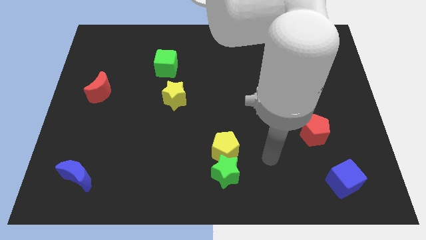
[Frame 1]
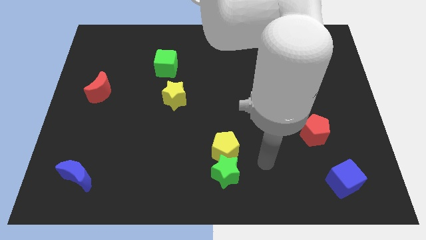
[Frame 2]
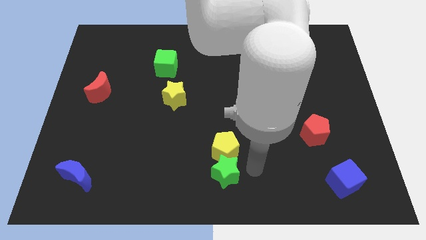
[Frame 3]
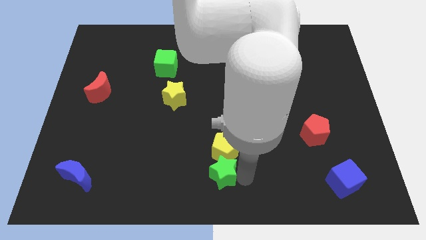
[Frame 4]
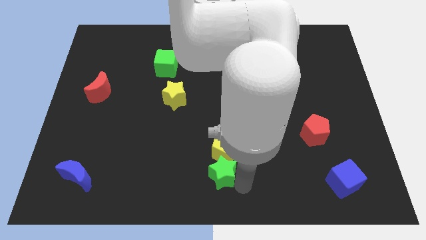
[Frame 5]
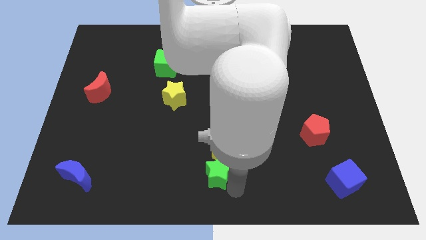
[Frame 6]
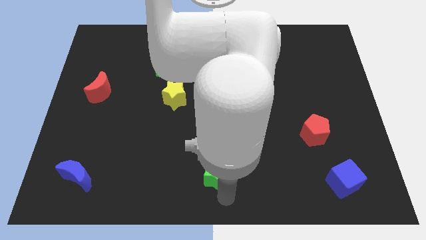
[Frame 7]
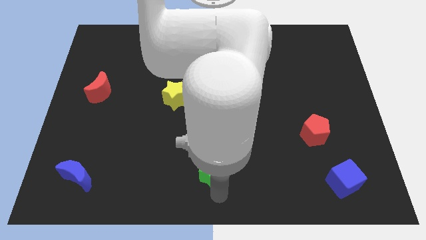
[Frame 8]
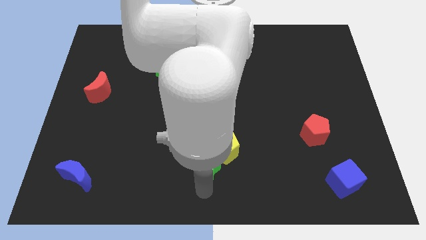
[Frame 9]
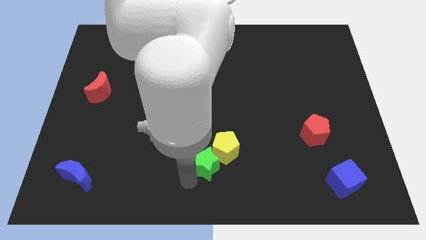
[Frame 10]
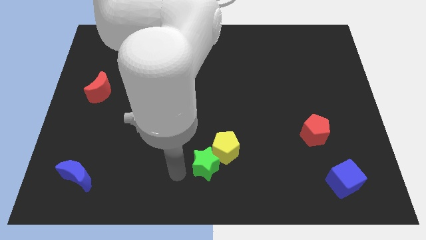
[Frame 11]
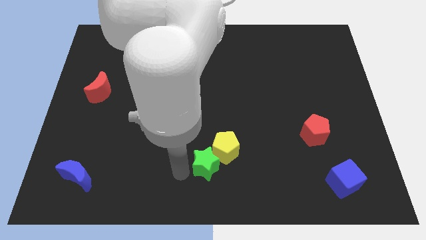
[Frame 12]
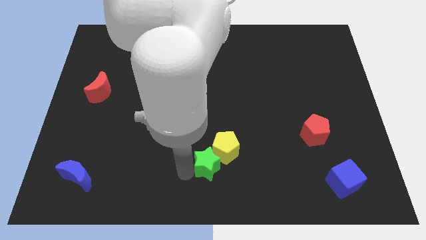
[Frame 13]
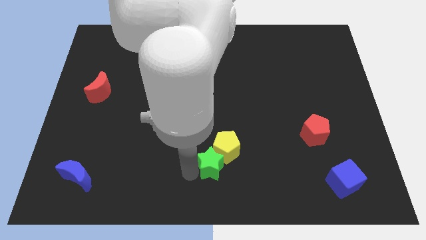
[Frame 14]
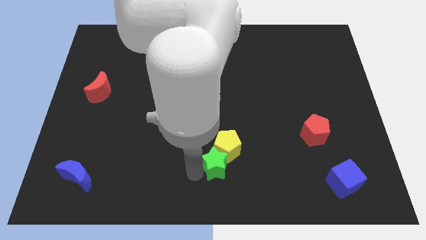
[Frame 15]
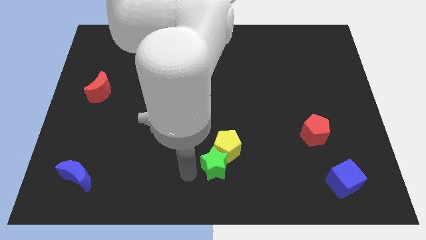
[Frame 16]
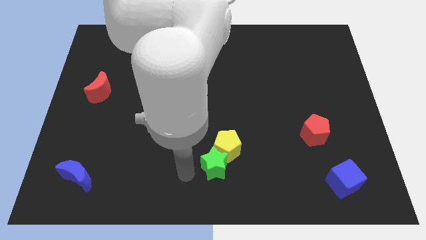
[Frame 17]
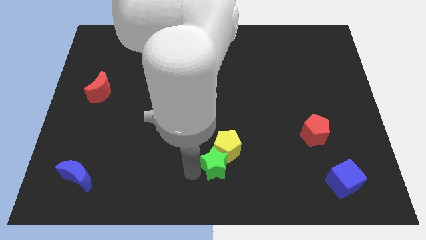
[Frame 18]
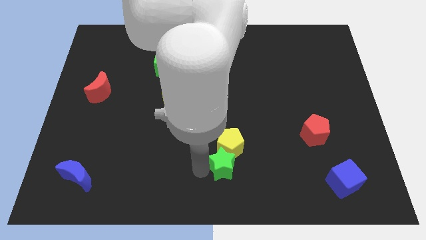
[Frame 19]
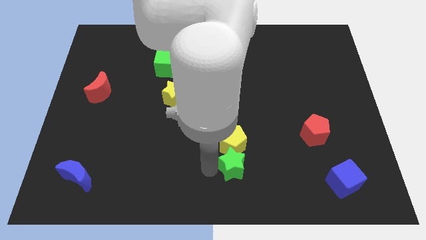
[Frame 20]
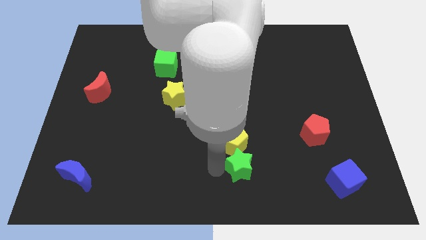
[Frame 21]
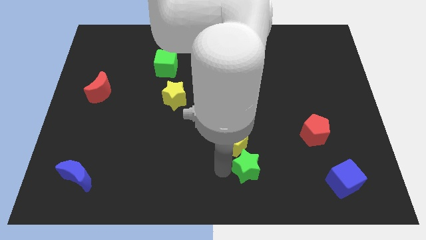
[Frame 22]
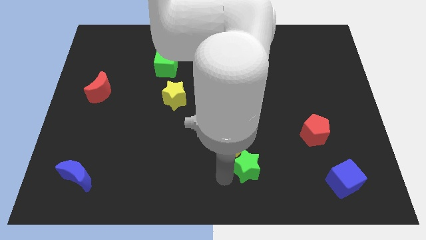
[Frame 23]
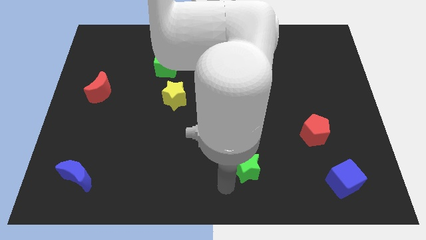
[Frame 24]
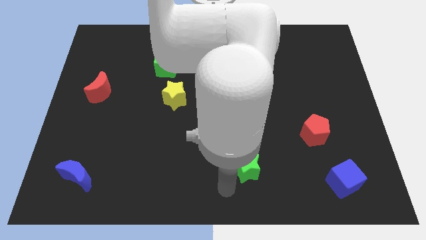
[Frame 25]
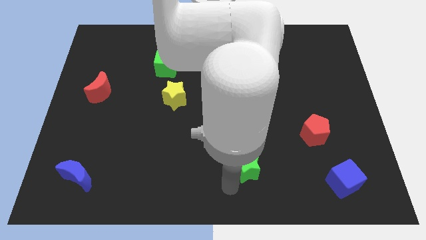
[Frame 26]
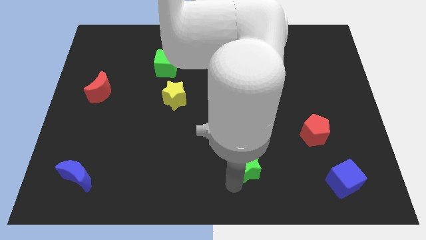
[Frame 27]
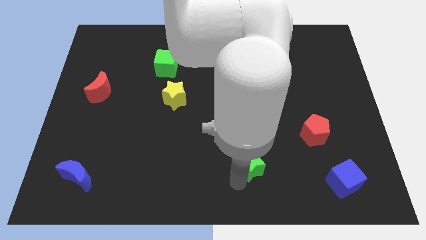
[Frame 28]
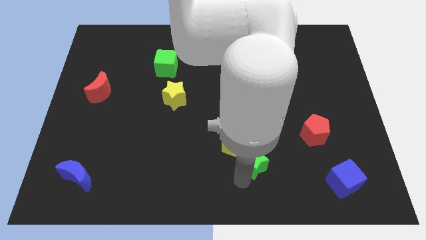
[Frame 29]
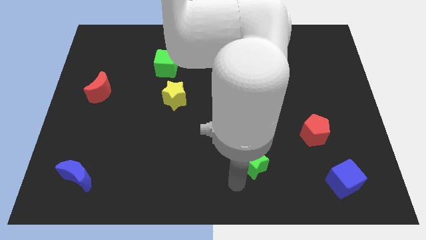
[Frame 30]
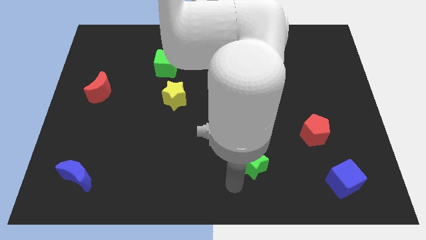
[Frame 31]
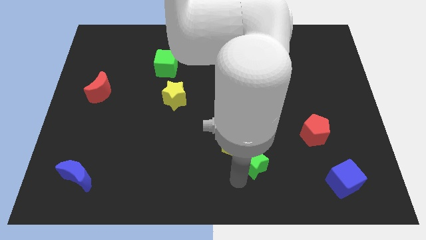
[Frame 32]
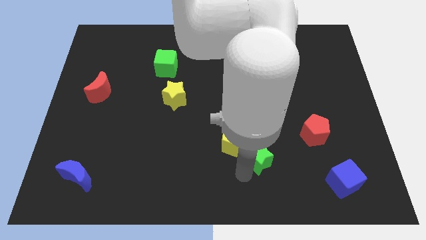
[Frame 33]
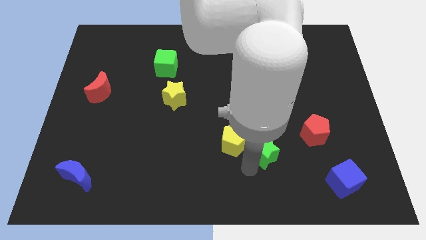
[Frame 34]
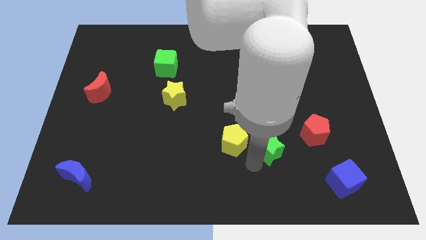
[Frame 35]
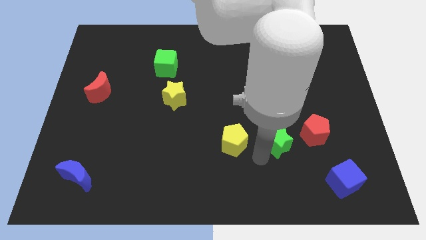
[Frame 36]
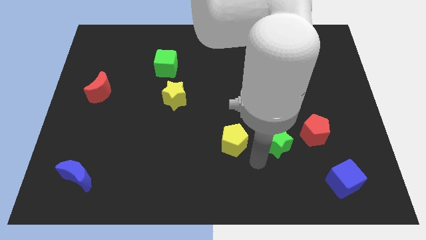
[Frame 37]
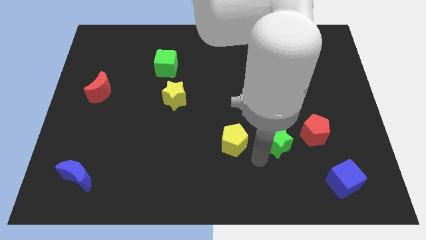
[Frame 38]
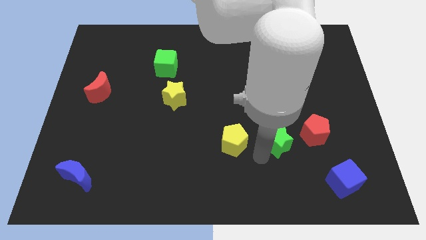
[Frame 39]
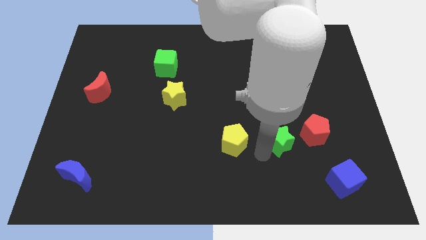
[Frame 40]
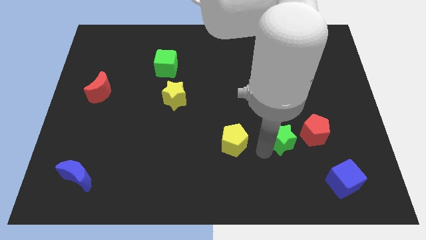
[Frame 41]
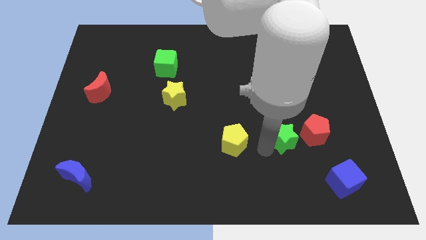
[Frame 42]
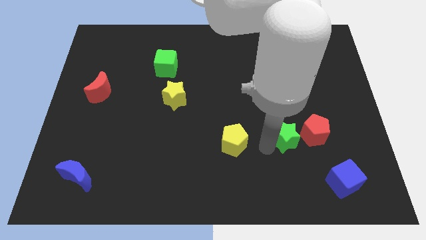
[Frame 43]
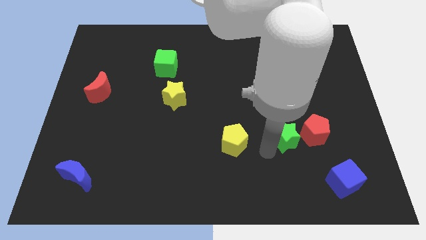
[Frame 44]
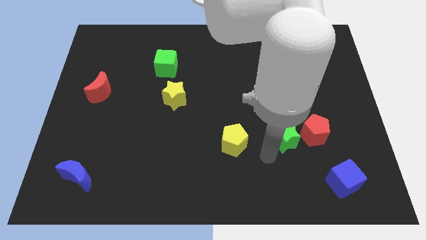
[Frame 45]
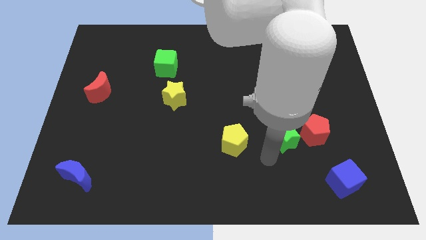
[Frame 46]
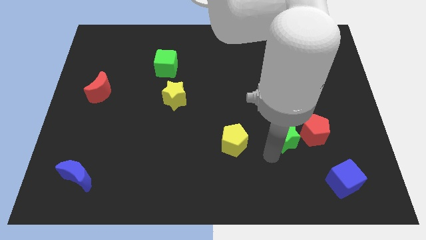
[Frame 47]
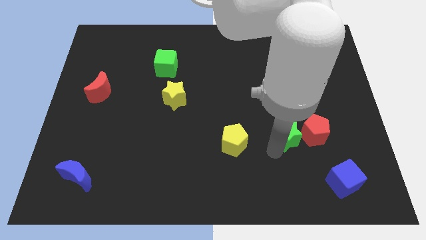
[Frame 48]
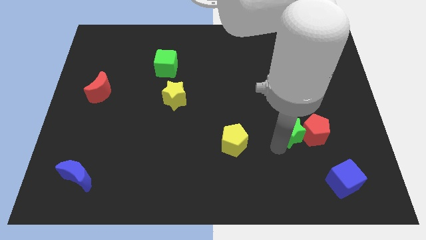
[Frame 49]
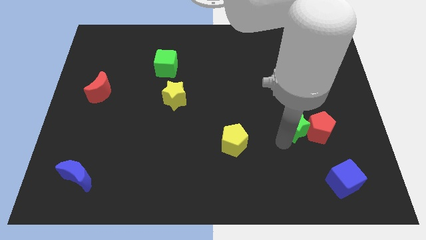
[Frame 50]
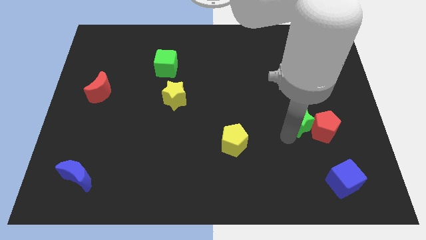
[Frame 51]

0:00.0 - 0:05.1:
push the green star up and then right

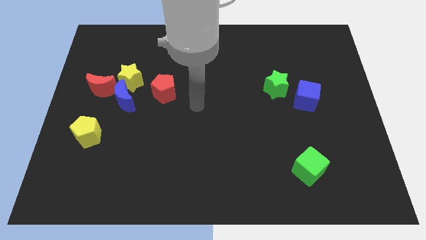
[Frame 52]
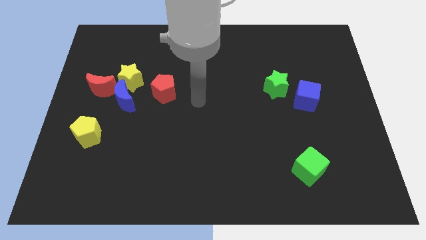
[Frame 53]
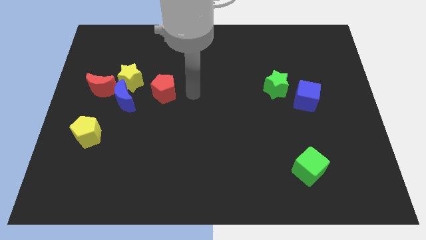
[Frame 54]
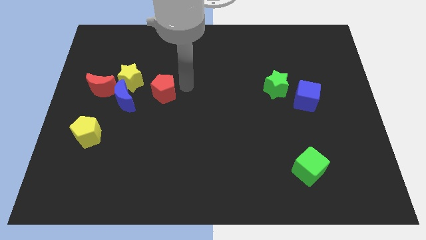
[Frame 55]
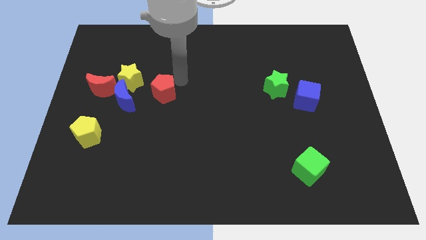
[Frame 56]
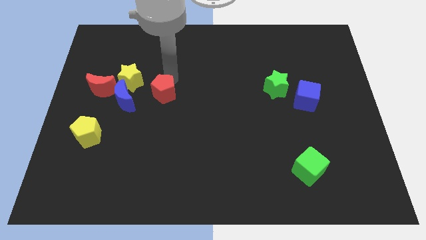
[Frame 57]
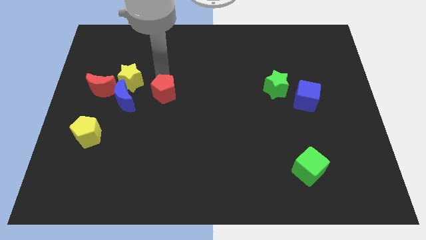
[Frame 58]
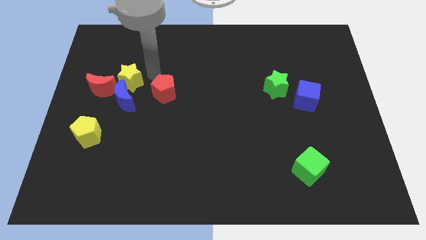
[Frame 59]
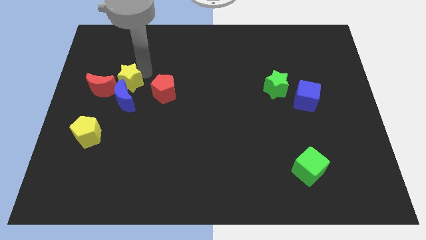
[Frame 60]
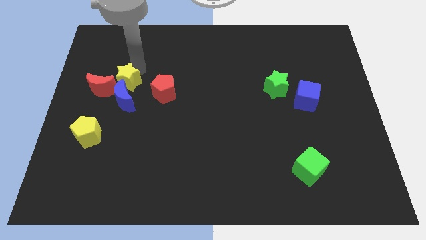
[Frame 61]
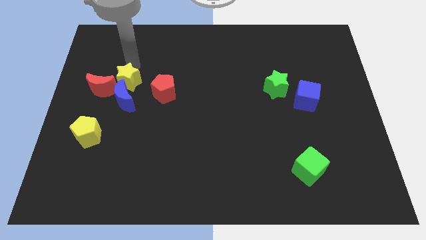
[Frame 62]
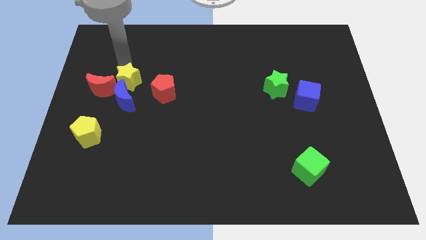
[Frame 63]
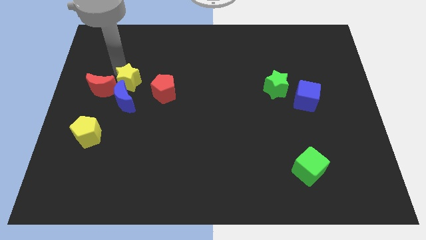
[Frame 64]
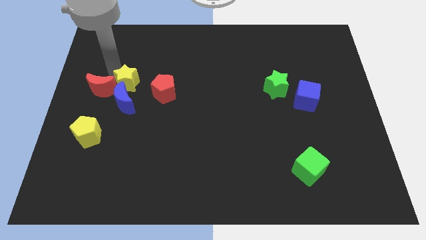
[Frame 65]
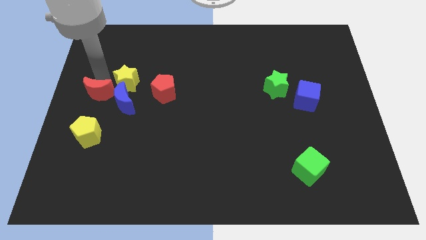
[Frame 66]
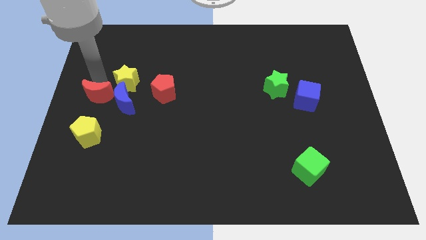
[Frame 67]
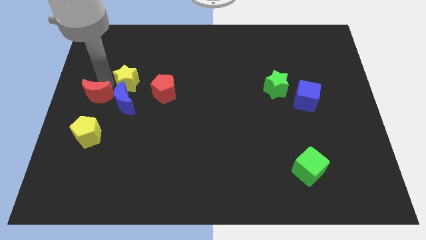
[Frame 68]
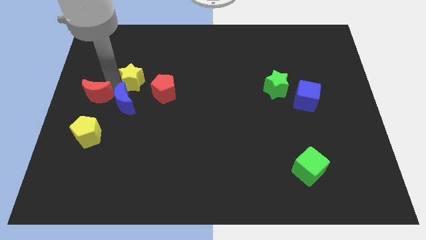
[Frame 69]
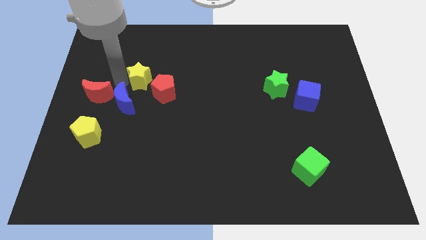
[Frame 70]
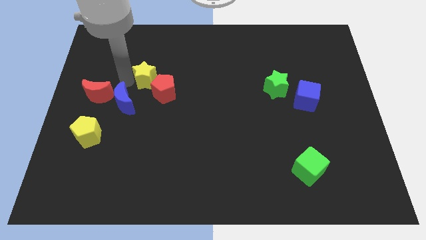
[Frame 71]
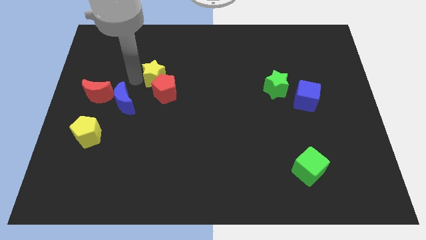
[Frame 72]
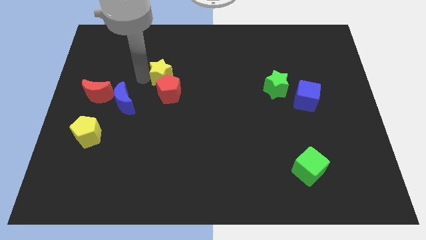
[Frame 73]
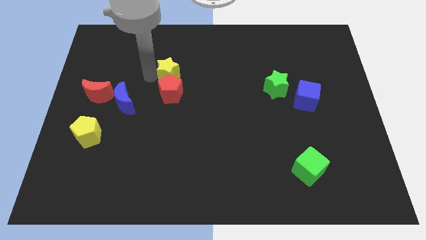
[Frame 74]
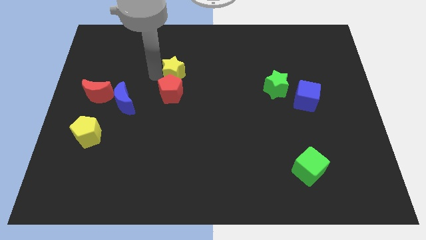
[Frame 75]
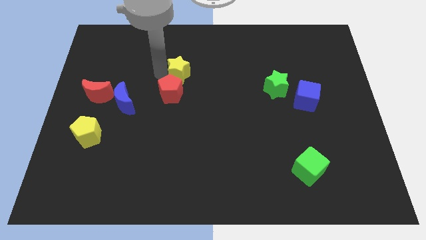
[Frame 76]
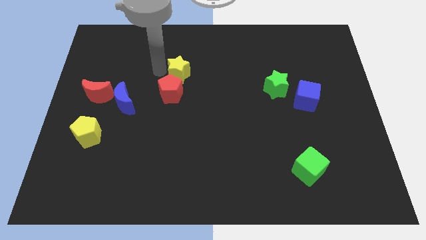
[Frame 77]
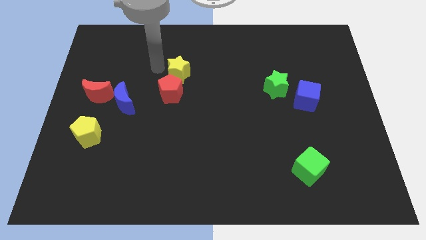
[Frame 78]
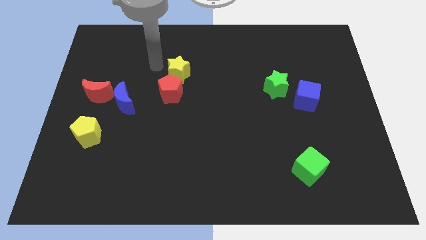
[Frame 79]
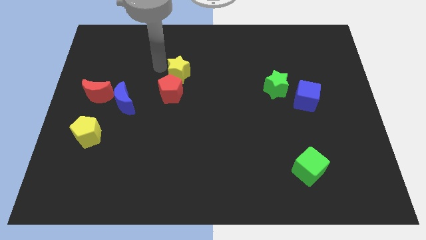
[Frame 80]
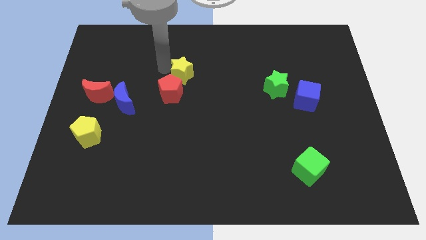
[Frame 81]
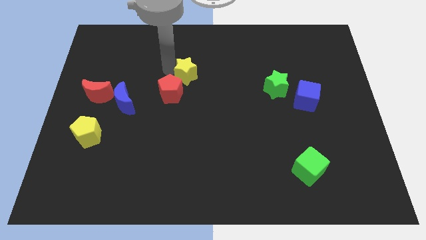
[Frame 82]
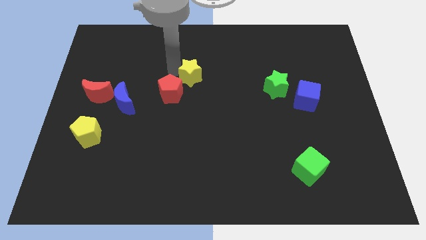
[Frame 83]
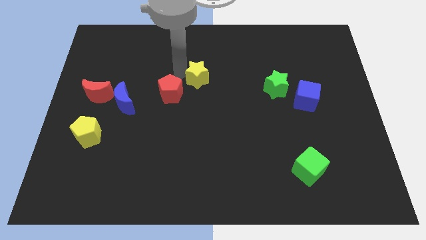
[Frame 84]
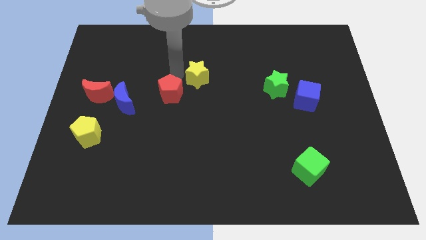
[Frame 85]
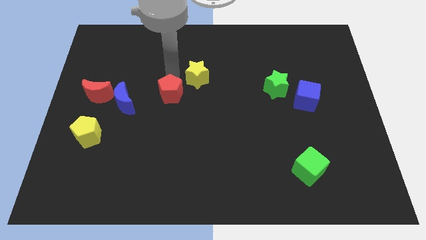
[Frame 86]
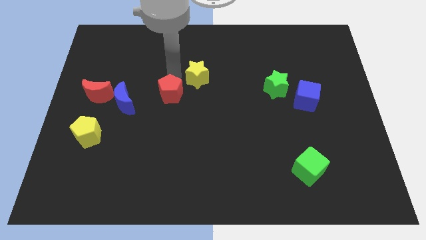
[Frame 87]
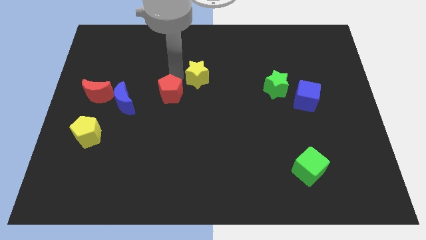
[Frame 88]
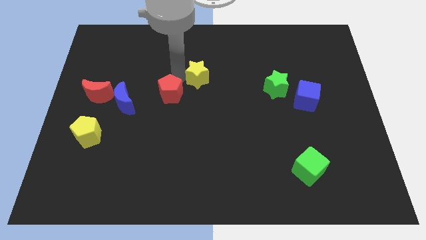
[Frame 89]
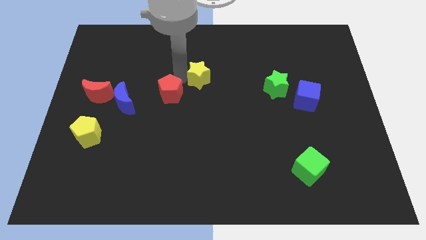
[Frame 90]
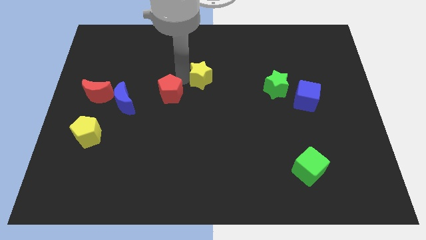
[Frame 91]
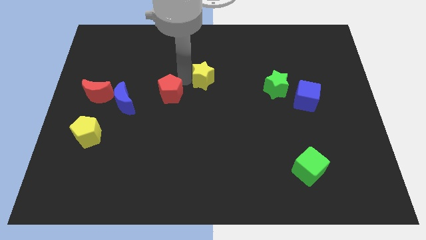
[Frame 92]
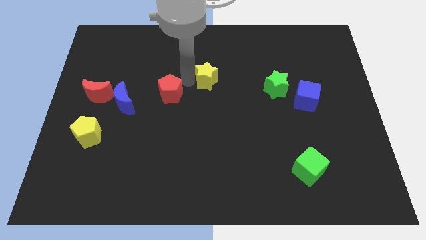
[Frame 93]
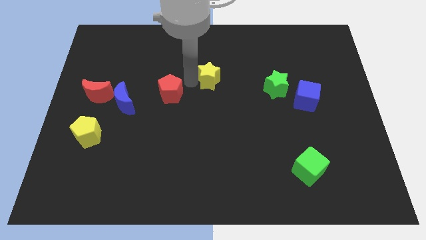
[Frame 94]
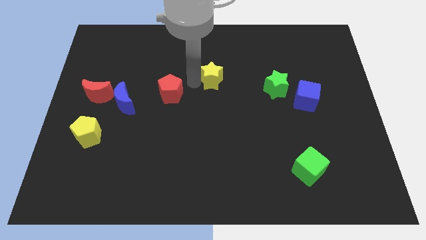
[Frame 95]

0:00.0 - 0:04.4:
move the yellow star right
